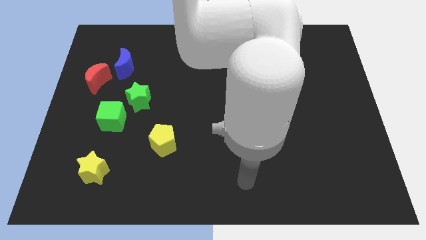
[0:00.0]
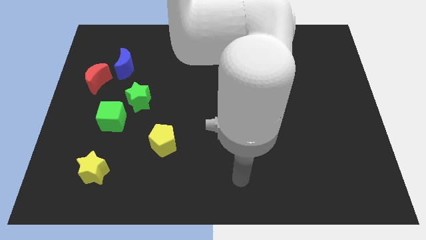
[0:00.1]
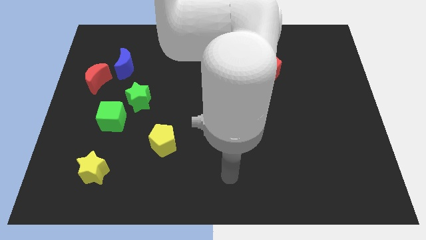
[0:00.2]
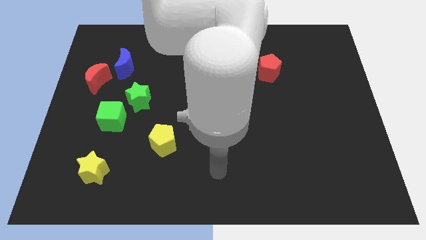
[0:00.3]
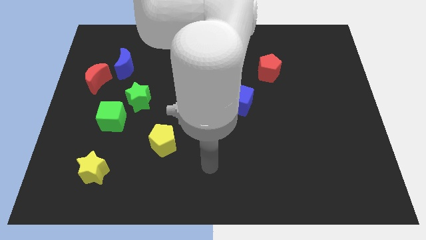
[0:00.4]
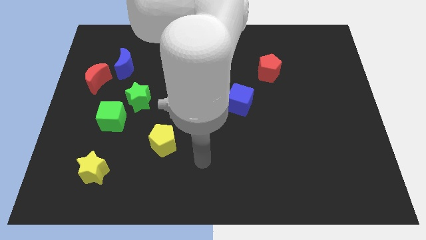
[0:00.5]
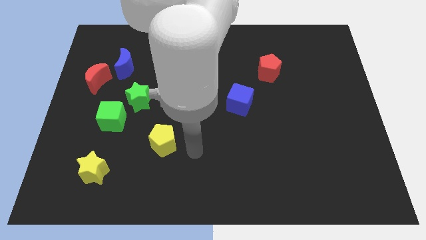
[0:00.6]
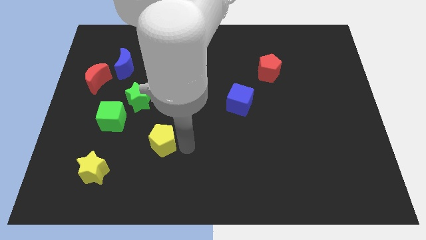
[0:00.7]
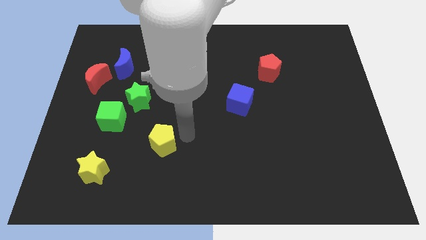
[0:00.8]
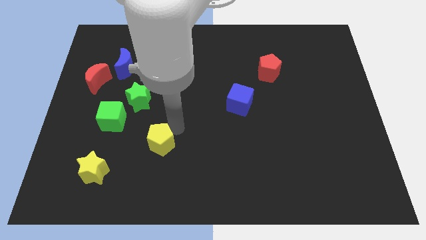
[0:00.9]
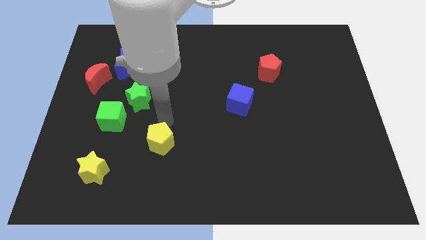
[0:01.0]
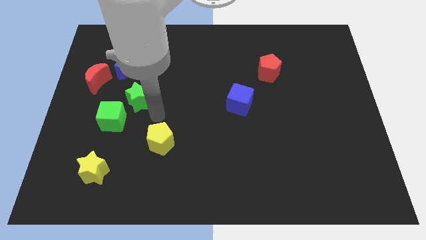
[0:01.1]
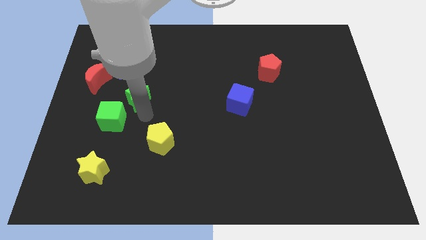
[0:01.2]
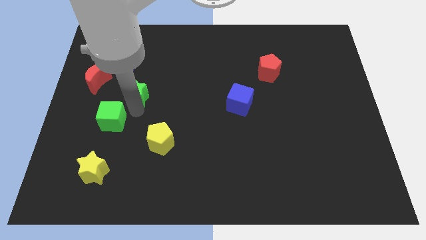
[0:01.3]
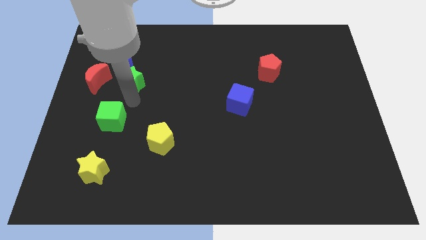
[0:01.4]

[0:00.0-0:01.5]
pull the green cube apart from the green star

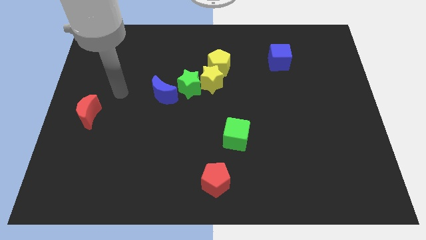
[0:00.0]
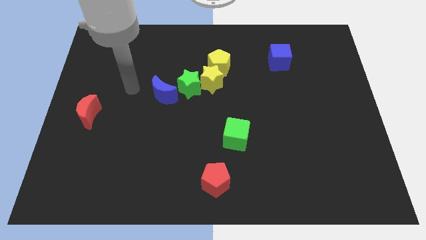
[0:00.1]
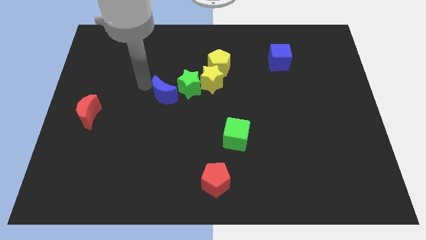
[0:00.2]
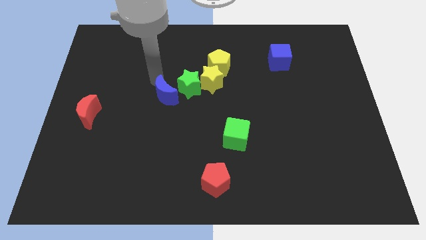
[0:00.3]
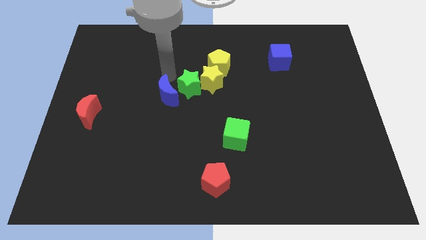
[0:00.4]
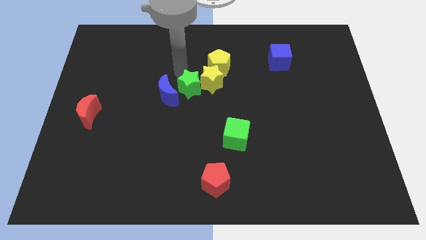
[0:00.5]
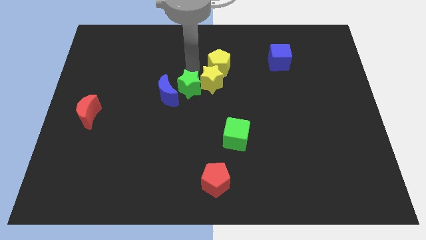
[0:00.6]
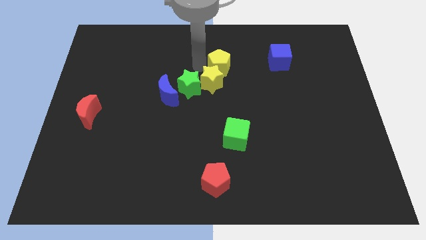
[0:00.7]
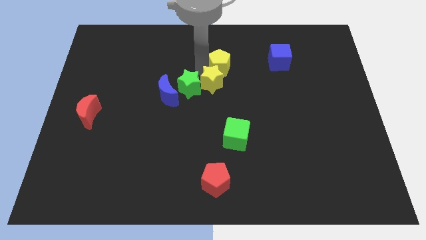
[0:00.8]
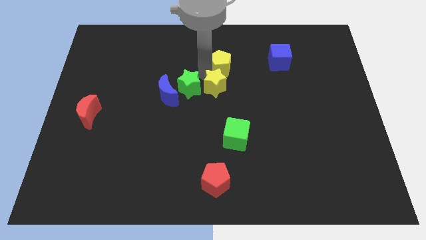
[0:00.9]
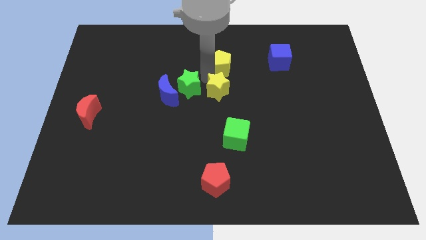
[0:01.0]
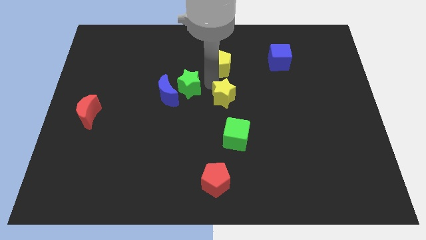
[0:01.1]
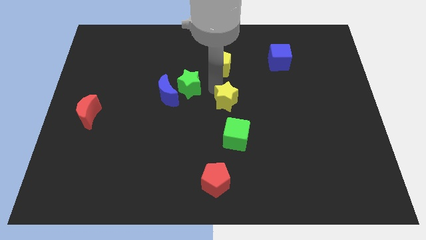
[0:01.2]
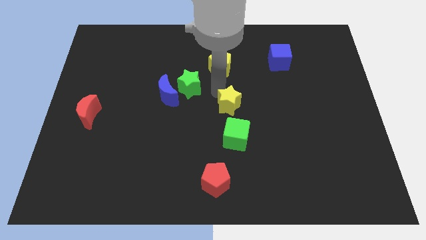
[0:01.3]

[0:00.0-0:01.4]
separate the yellow star from the green star and yellow pentagon

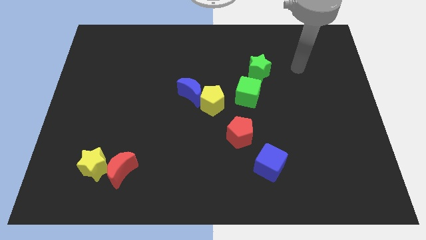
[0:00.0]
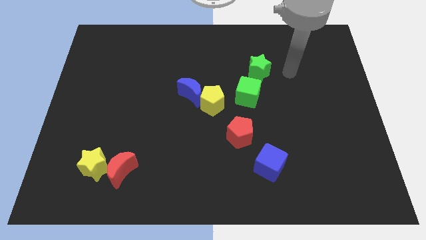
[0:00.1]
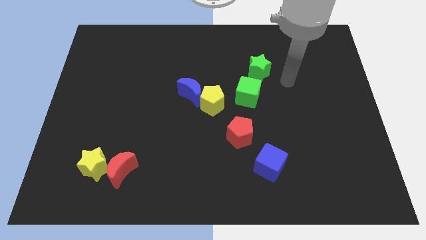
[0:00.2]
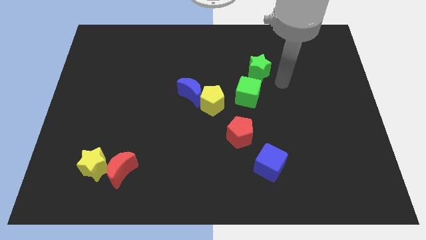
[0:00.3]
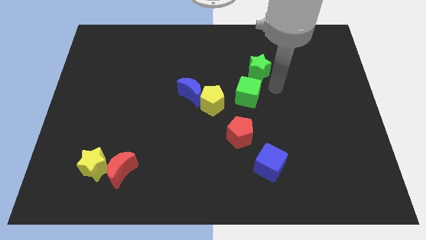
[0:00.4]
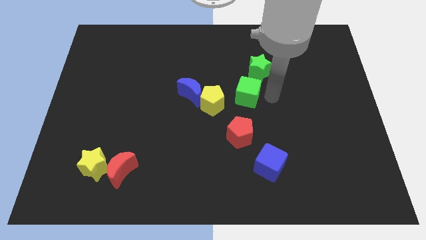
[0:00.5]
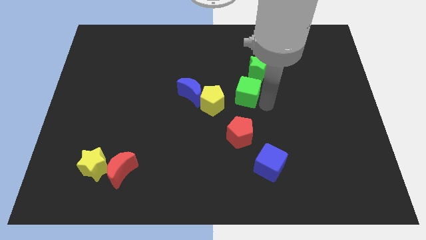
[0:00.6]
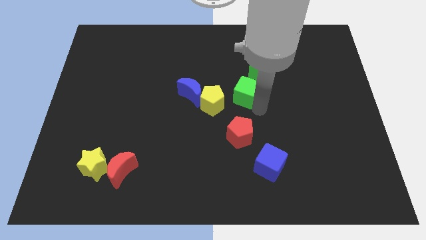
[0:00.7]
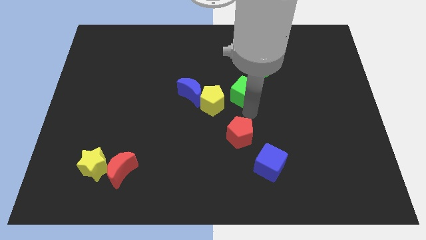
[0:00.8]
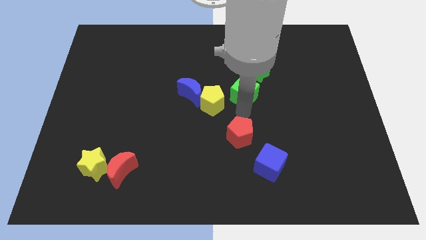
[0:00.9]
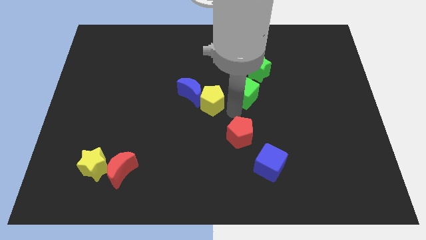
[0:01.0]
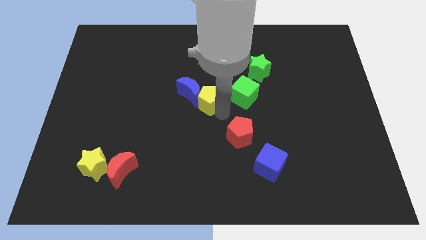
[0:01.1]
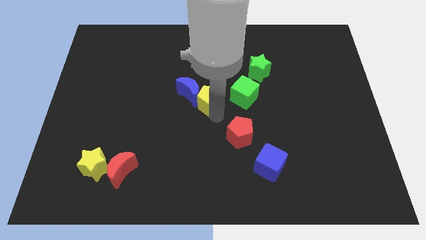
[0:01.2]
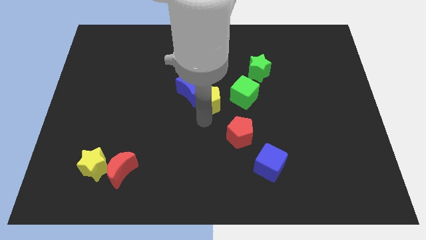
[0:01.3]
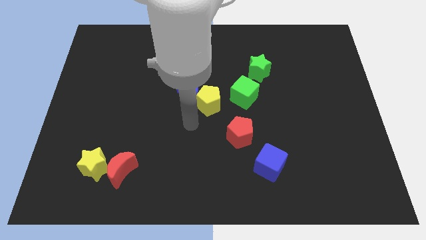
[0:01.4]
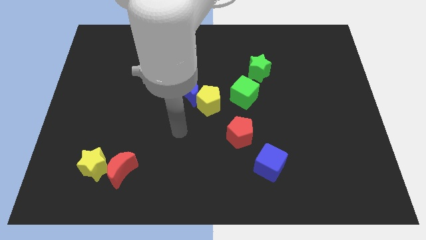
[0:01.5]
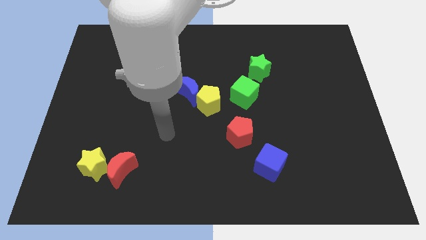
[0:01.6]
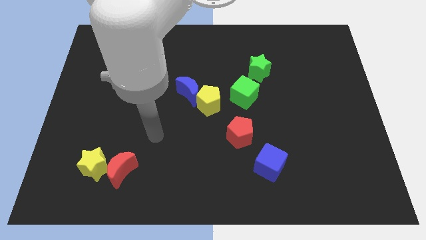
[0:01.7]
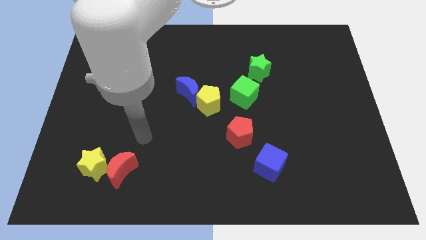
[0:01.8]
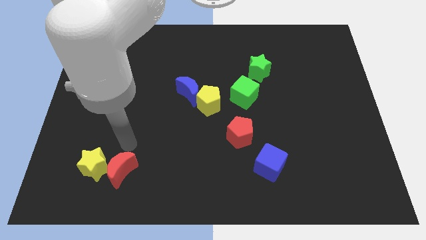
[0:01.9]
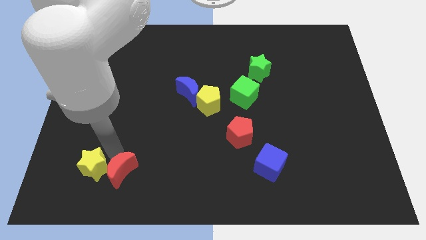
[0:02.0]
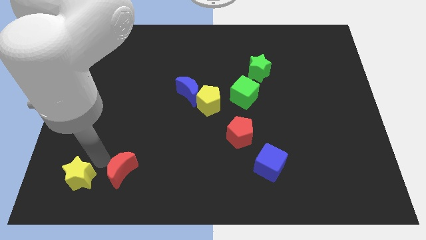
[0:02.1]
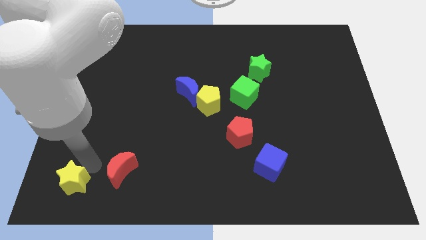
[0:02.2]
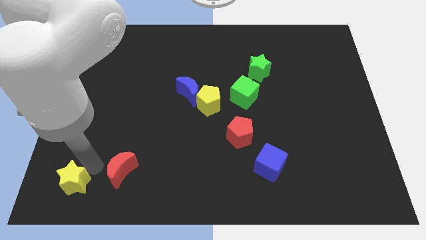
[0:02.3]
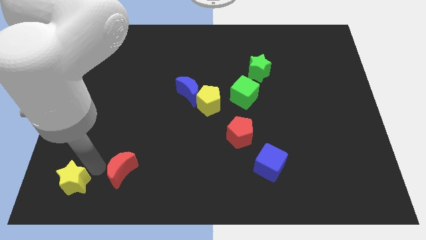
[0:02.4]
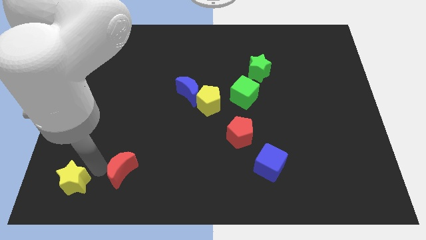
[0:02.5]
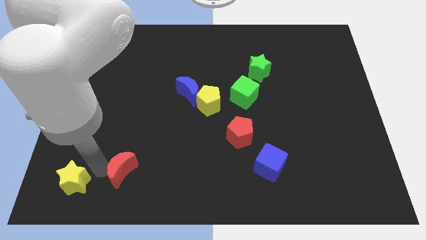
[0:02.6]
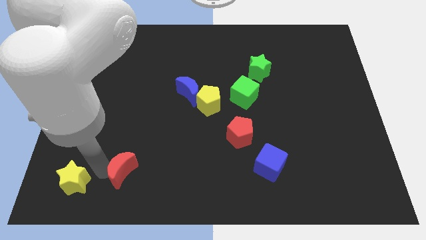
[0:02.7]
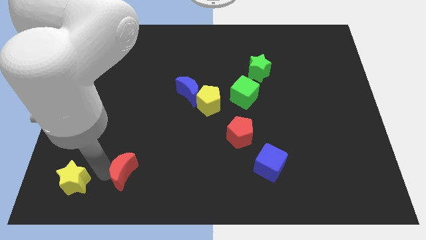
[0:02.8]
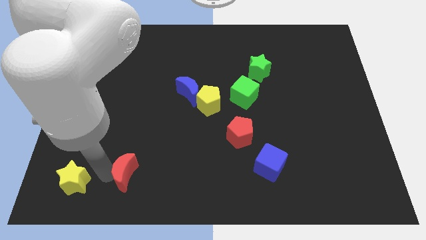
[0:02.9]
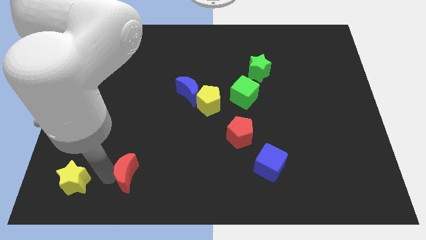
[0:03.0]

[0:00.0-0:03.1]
separate the red moon from the yellow star

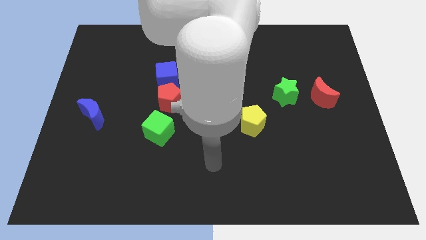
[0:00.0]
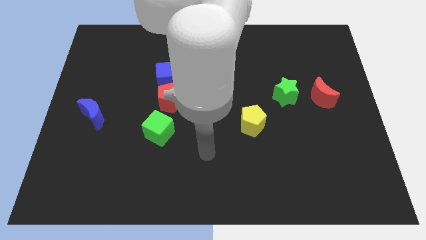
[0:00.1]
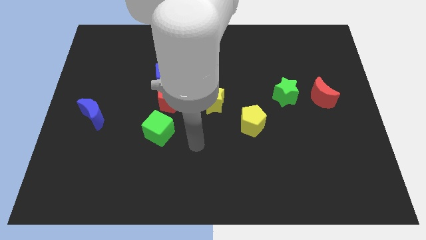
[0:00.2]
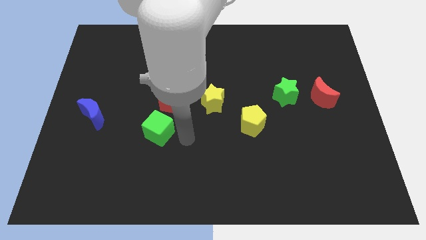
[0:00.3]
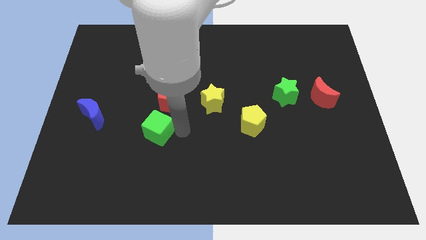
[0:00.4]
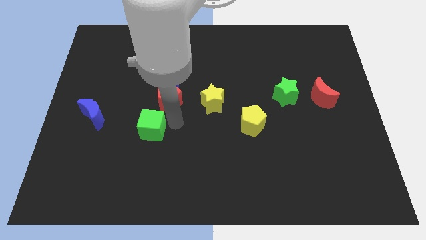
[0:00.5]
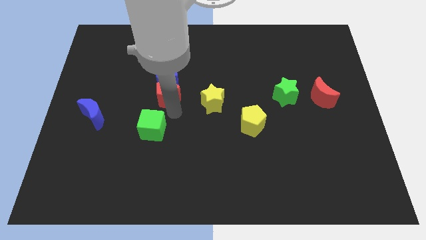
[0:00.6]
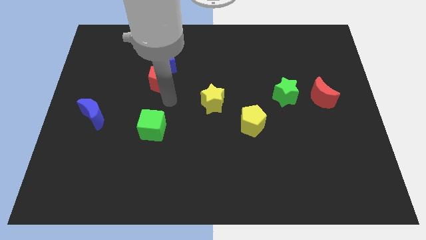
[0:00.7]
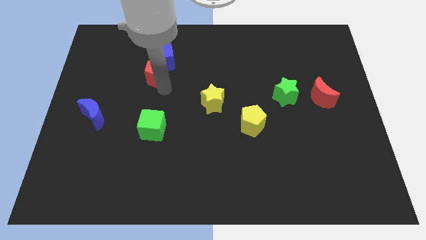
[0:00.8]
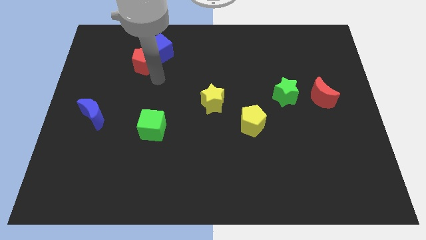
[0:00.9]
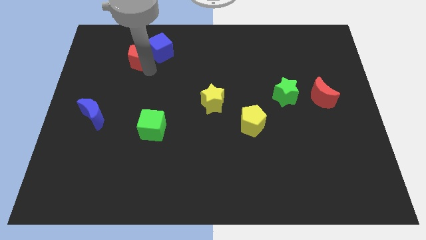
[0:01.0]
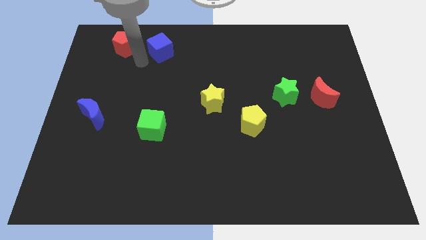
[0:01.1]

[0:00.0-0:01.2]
pull the blue cube apart from the red pentagon

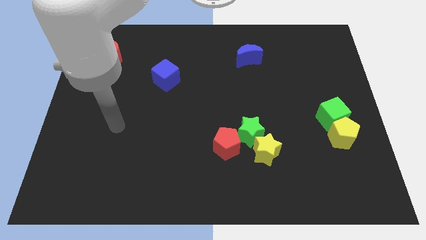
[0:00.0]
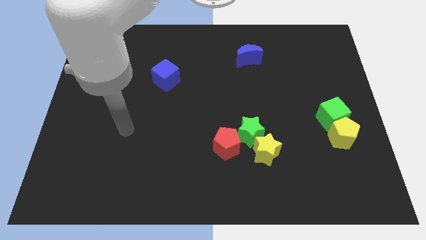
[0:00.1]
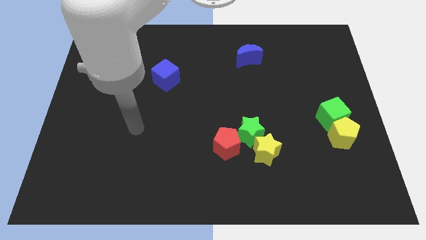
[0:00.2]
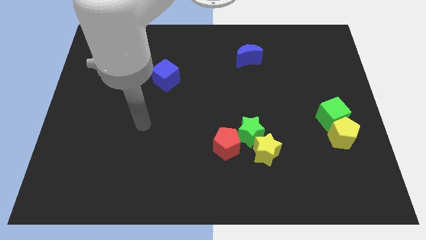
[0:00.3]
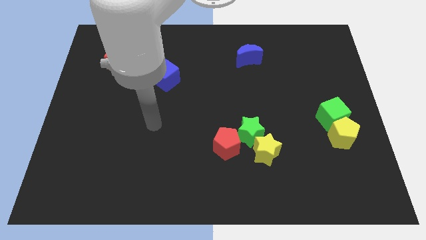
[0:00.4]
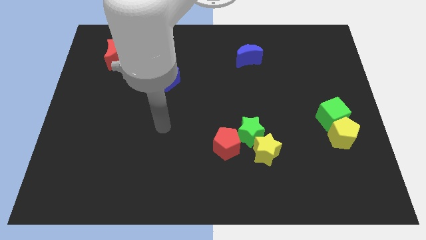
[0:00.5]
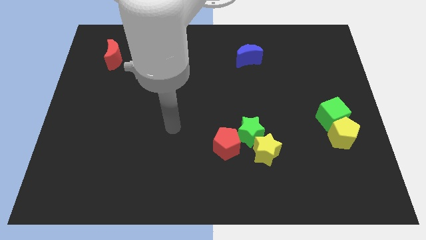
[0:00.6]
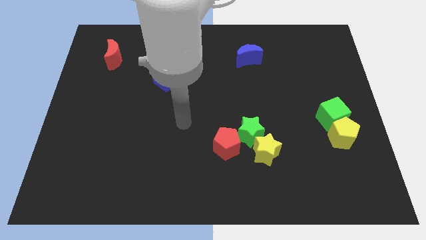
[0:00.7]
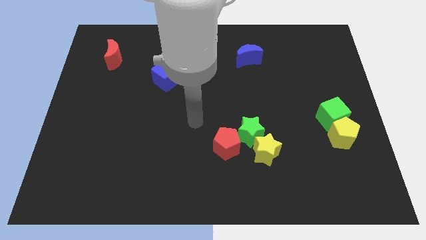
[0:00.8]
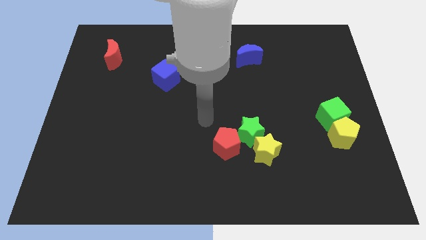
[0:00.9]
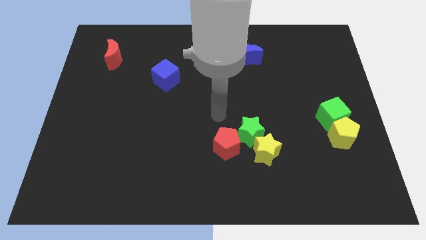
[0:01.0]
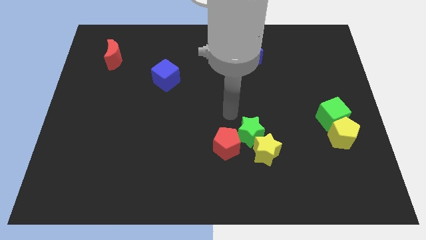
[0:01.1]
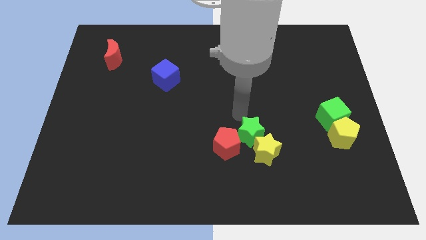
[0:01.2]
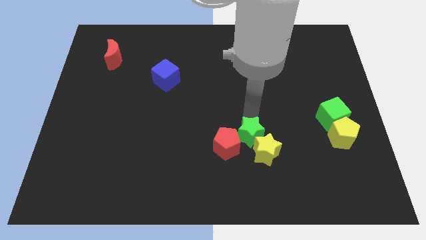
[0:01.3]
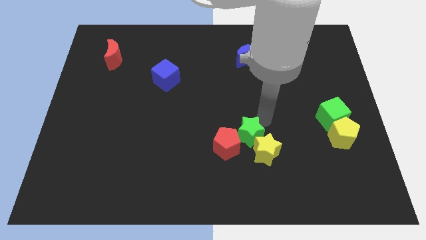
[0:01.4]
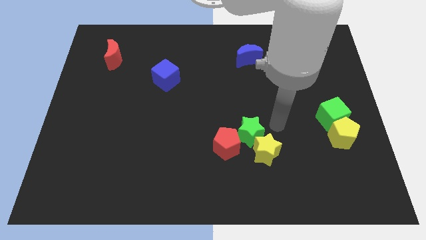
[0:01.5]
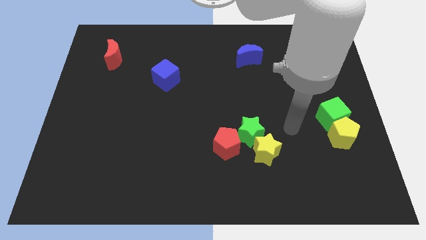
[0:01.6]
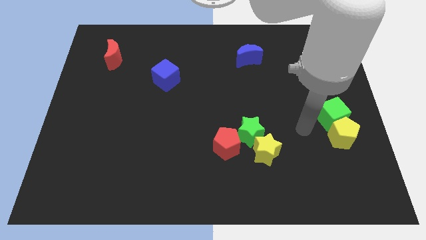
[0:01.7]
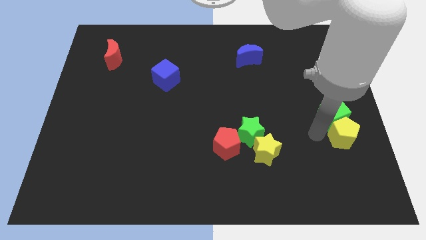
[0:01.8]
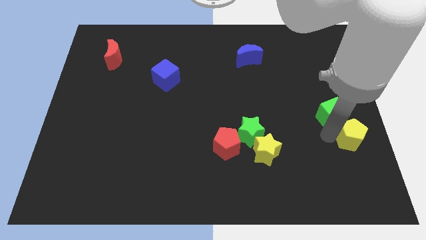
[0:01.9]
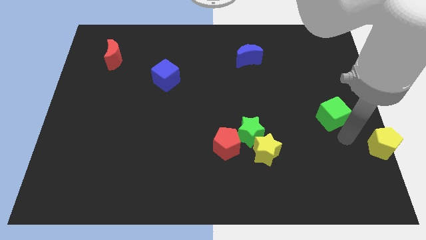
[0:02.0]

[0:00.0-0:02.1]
pull the green cube apart from the yellow pentagon
